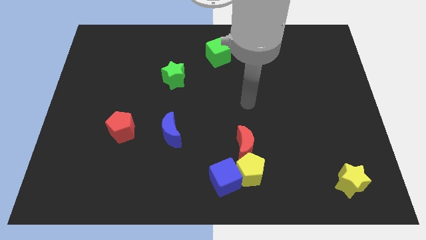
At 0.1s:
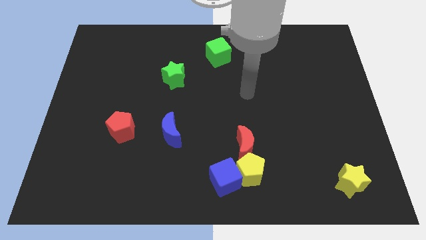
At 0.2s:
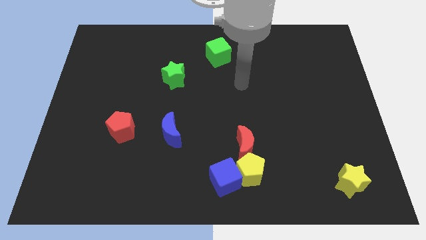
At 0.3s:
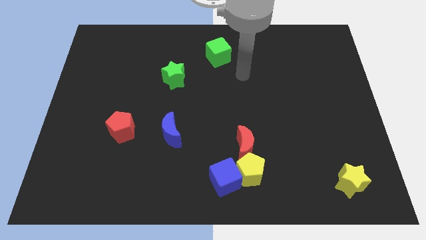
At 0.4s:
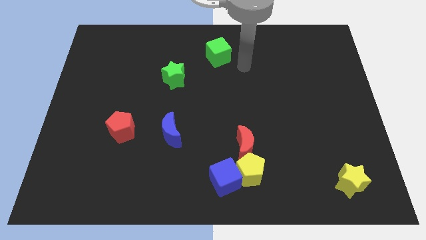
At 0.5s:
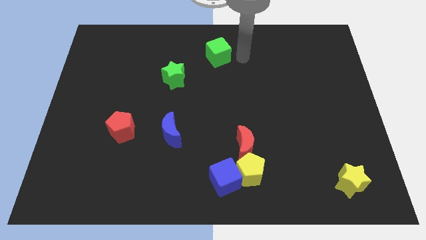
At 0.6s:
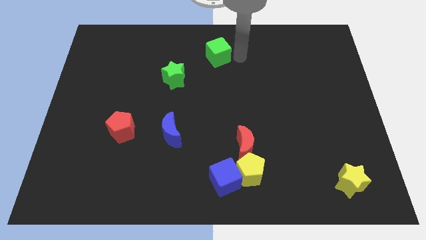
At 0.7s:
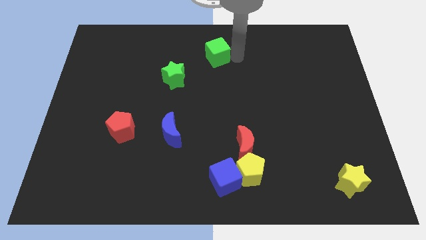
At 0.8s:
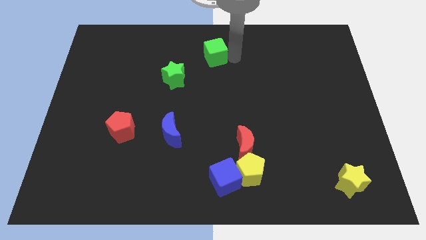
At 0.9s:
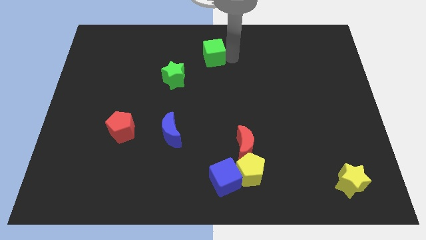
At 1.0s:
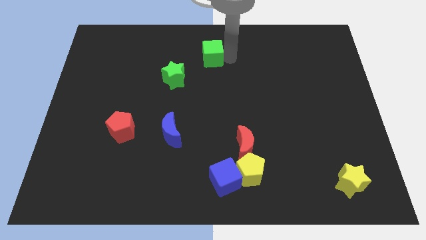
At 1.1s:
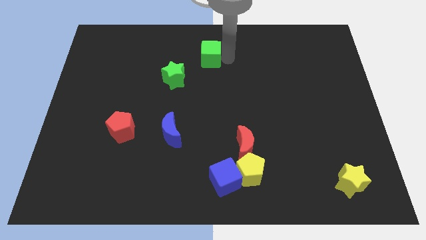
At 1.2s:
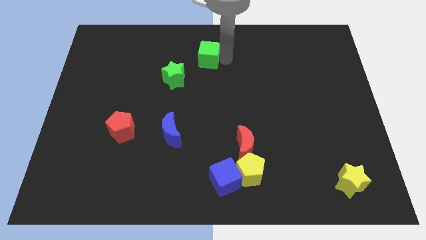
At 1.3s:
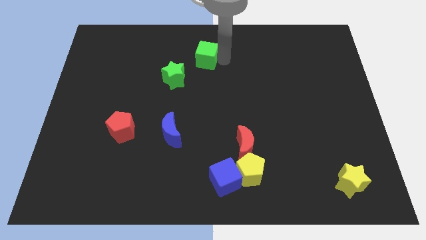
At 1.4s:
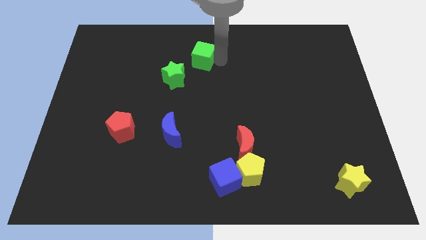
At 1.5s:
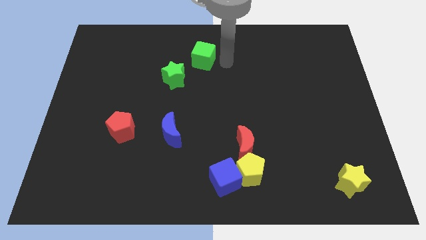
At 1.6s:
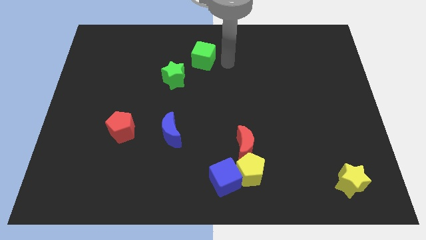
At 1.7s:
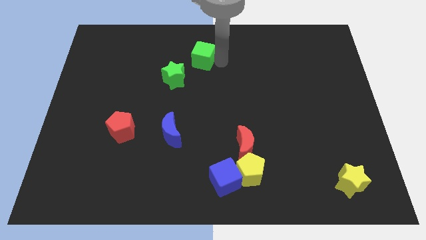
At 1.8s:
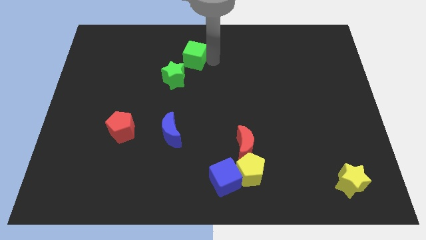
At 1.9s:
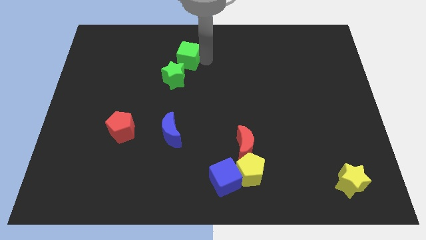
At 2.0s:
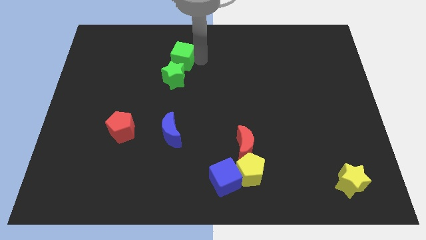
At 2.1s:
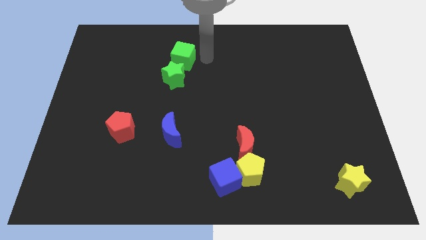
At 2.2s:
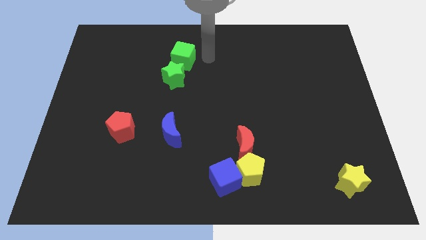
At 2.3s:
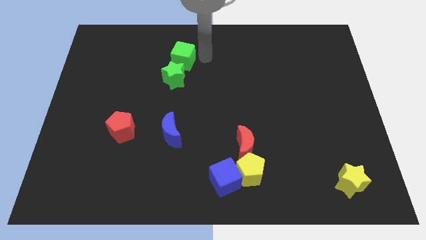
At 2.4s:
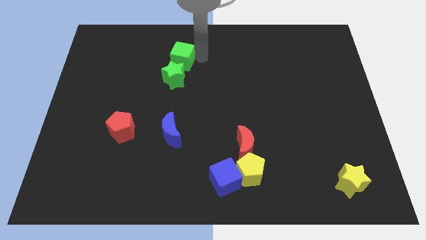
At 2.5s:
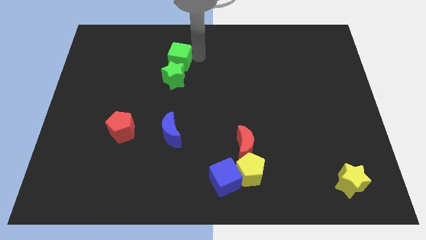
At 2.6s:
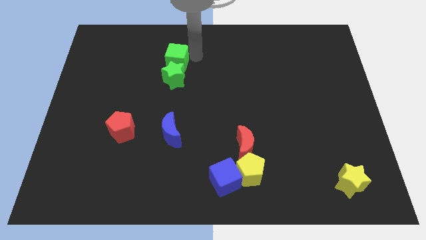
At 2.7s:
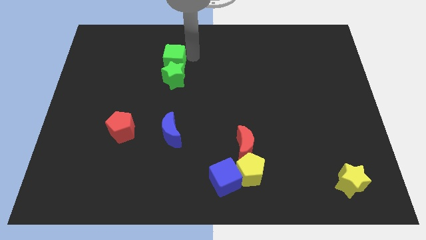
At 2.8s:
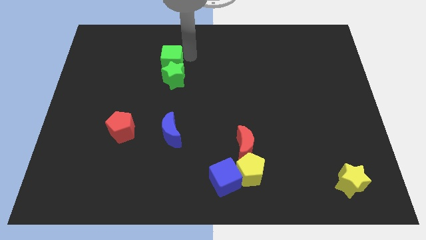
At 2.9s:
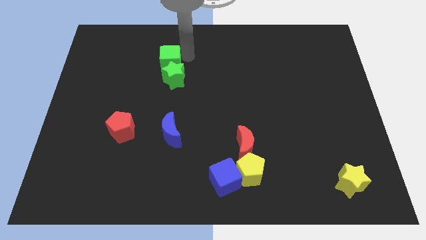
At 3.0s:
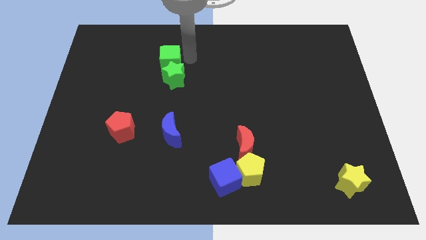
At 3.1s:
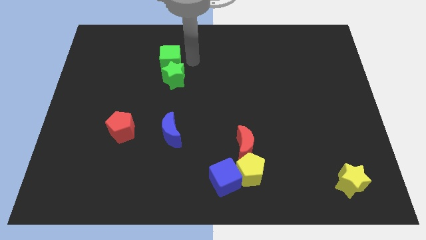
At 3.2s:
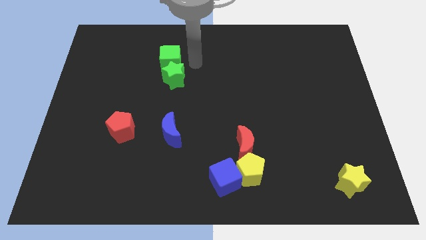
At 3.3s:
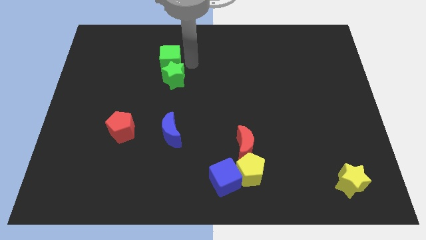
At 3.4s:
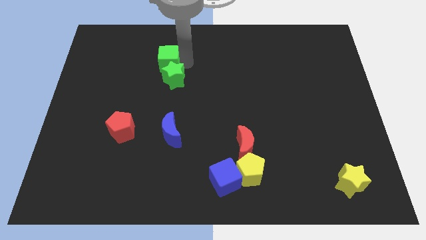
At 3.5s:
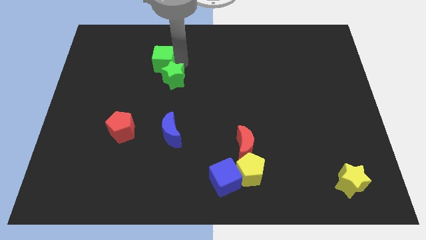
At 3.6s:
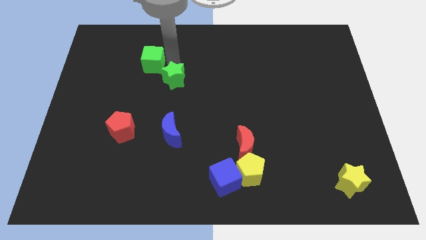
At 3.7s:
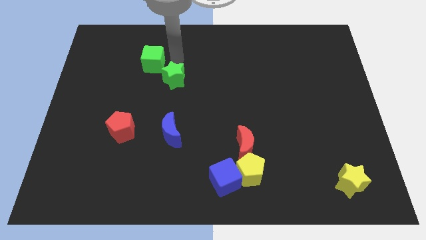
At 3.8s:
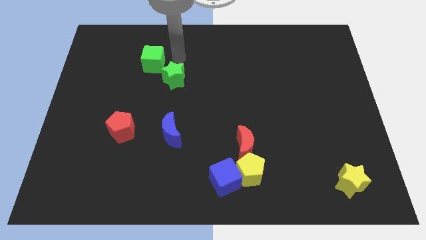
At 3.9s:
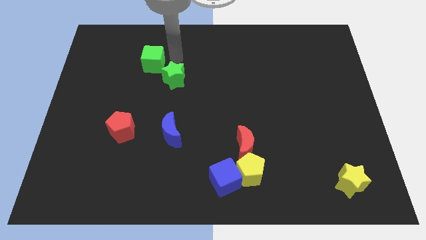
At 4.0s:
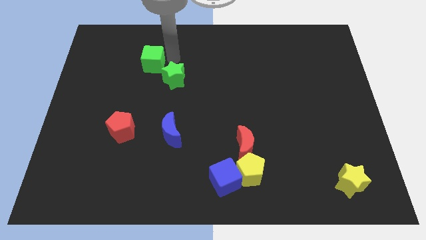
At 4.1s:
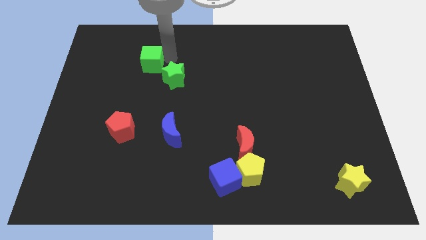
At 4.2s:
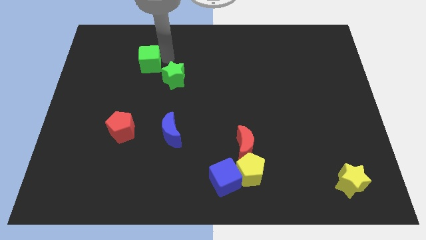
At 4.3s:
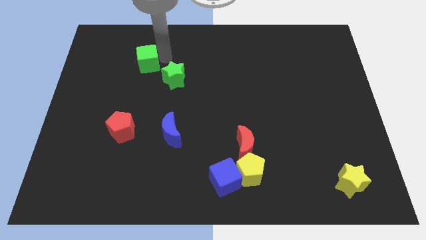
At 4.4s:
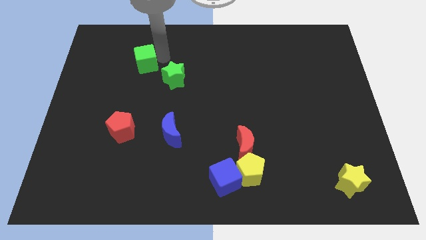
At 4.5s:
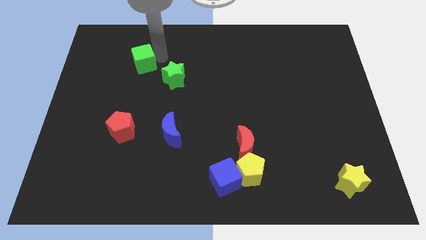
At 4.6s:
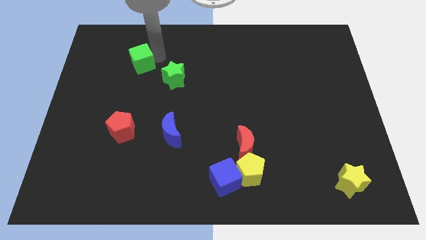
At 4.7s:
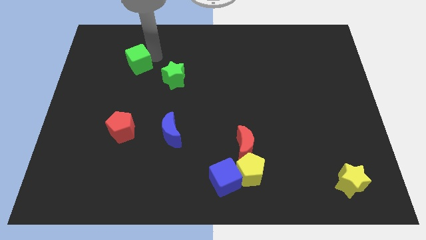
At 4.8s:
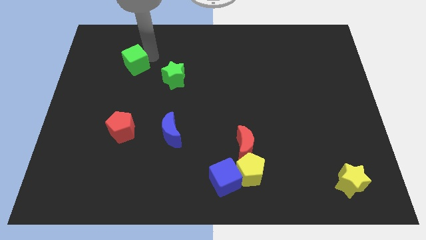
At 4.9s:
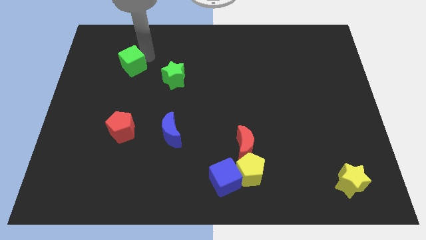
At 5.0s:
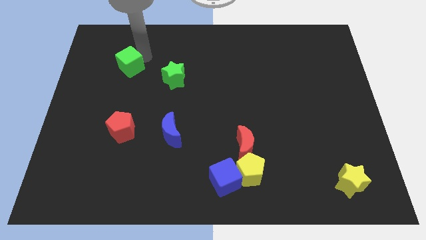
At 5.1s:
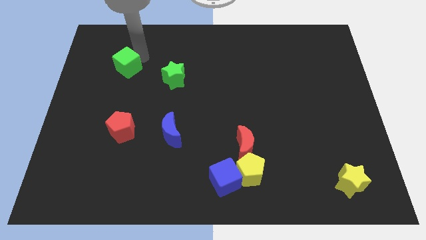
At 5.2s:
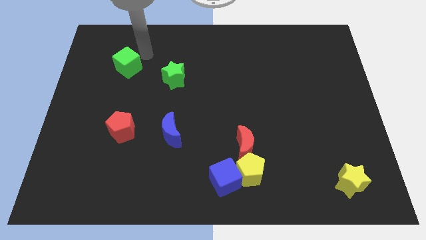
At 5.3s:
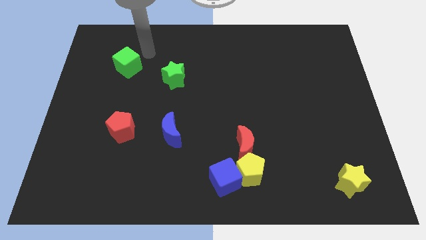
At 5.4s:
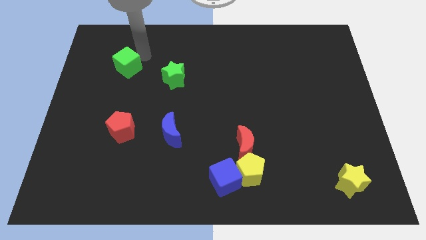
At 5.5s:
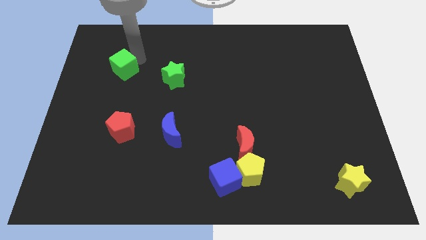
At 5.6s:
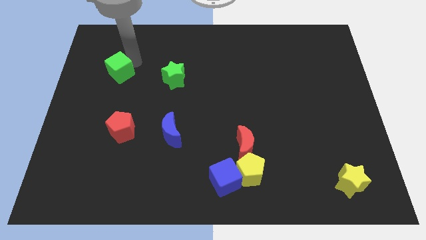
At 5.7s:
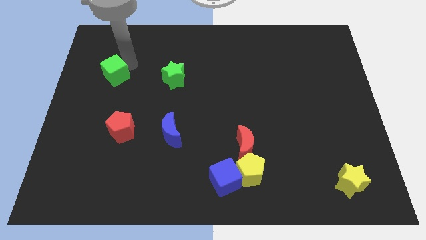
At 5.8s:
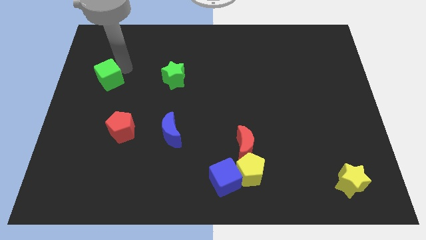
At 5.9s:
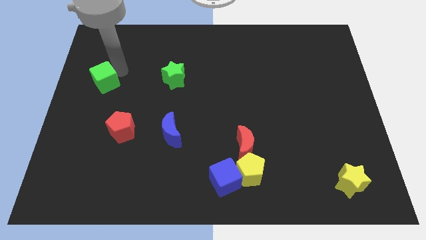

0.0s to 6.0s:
push the green cube to the center left

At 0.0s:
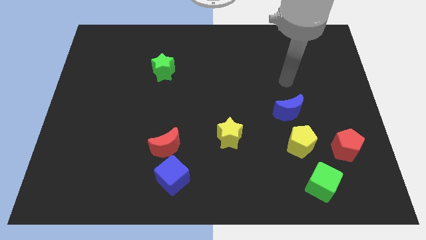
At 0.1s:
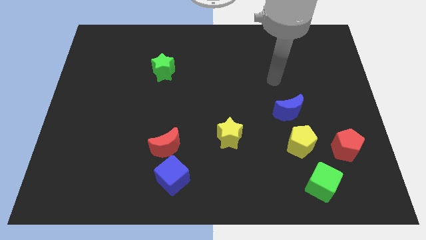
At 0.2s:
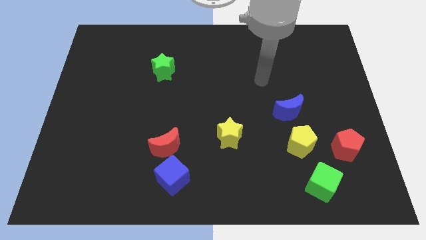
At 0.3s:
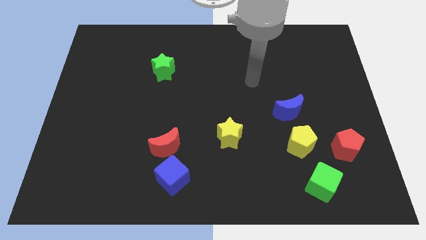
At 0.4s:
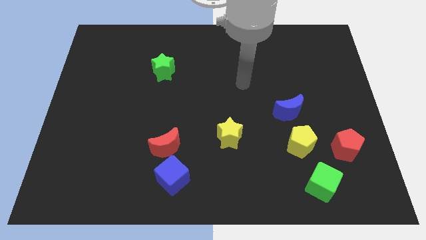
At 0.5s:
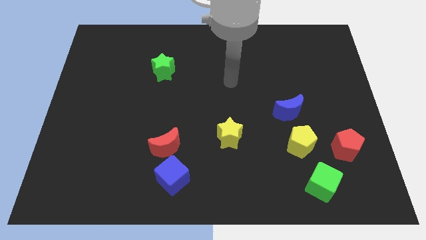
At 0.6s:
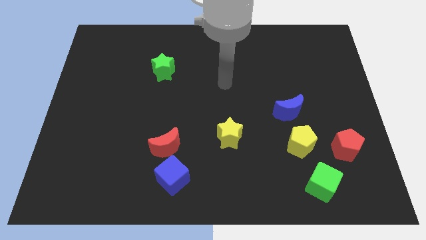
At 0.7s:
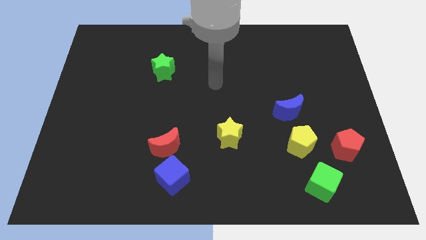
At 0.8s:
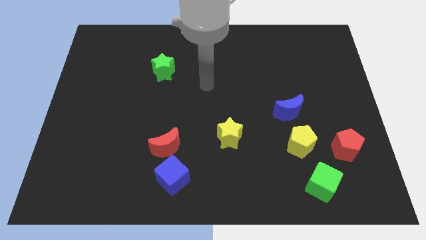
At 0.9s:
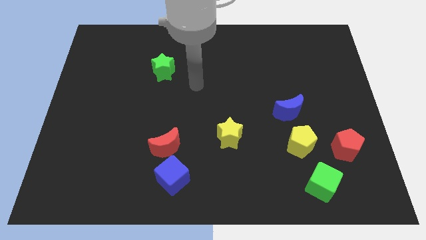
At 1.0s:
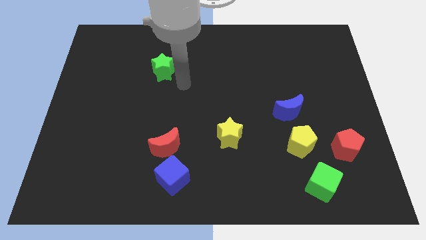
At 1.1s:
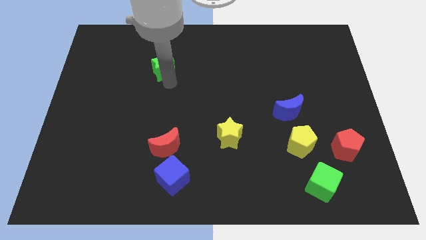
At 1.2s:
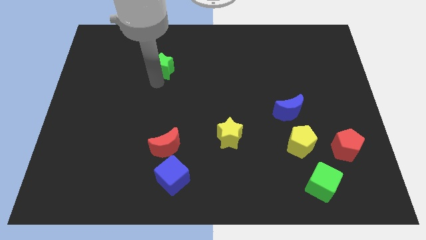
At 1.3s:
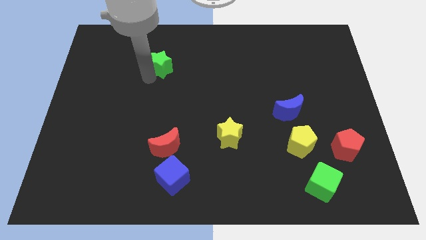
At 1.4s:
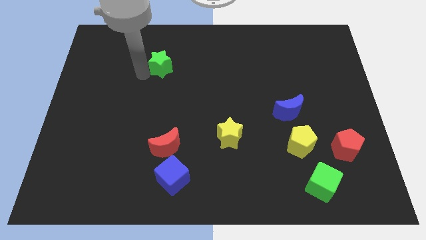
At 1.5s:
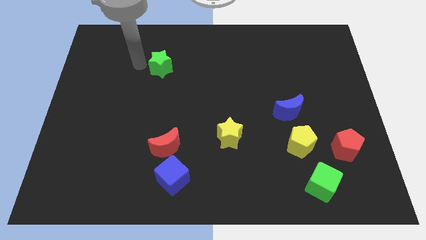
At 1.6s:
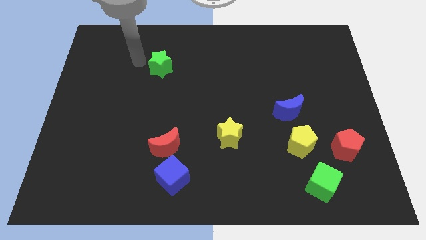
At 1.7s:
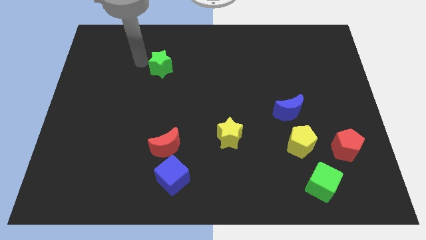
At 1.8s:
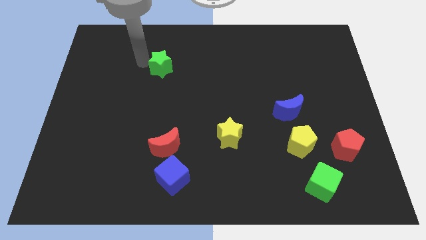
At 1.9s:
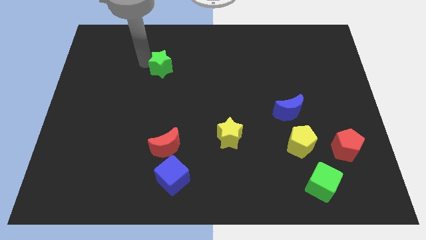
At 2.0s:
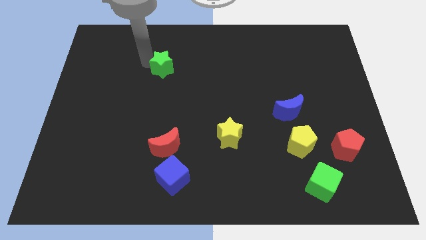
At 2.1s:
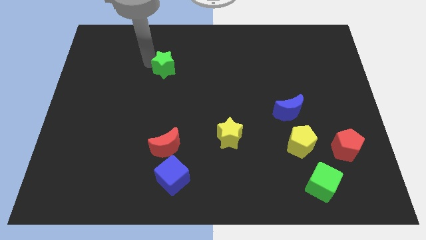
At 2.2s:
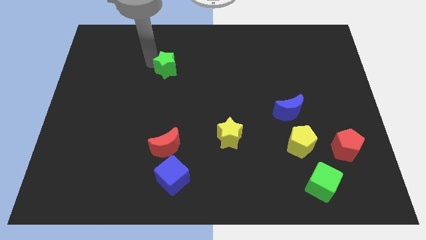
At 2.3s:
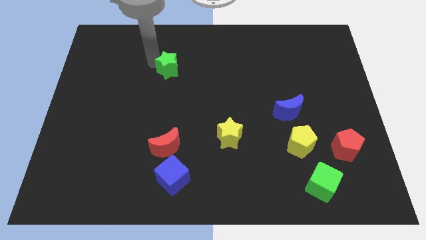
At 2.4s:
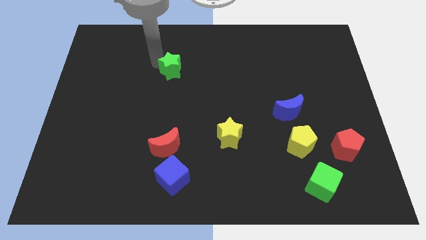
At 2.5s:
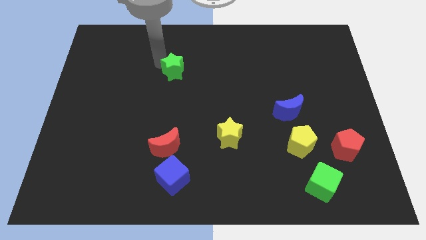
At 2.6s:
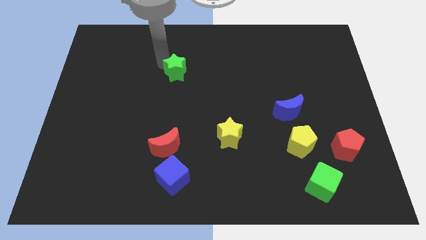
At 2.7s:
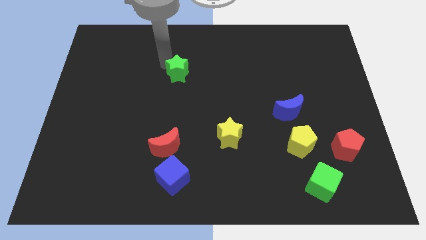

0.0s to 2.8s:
slide the green star to the center
